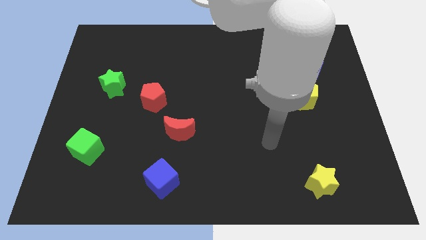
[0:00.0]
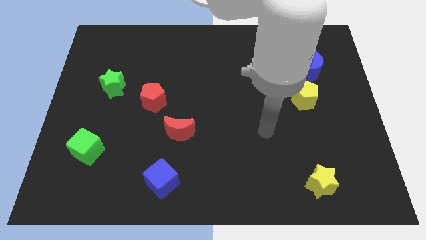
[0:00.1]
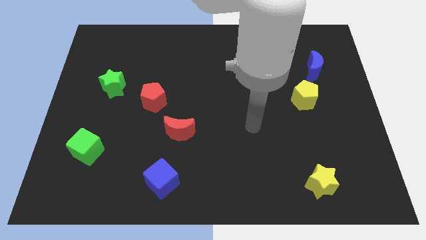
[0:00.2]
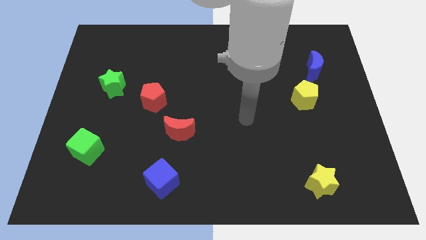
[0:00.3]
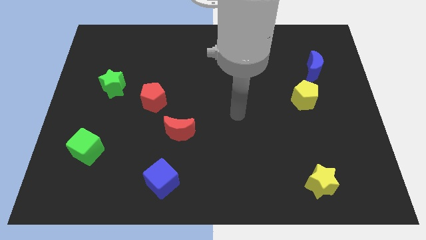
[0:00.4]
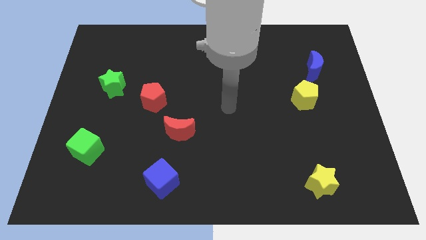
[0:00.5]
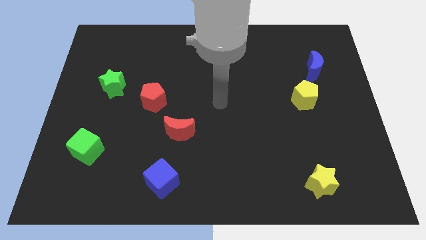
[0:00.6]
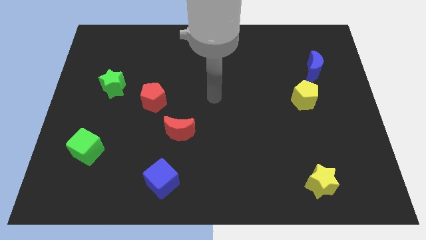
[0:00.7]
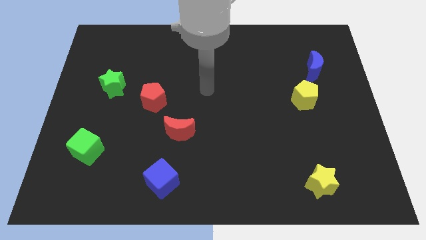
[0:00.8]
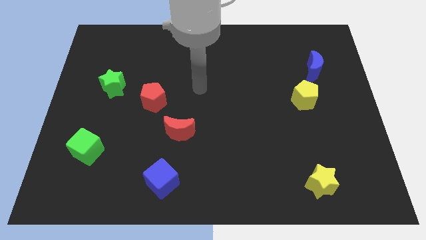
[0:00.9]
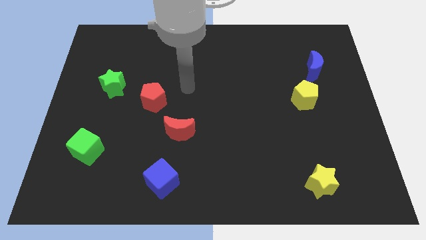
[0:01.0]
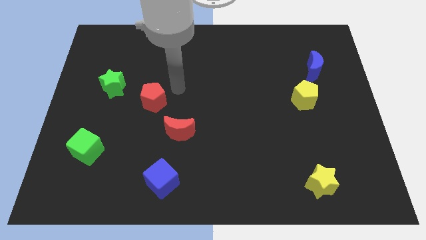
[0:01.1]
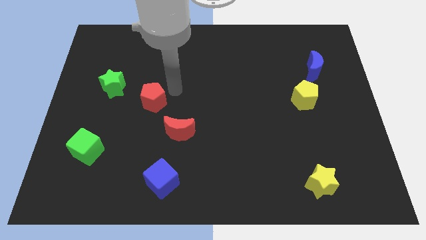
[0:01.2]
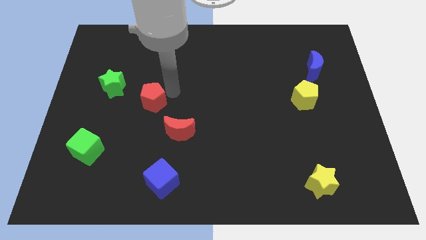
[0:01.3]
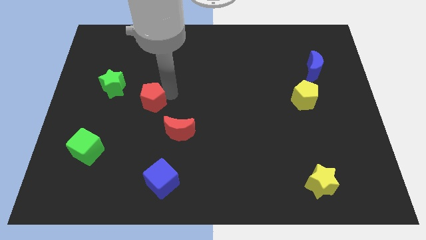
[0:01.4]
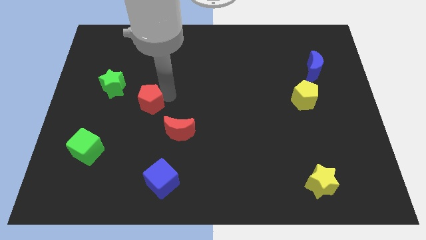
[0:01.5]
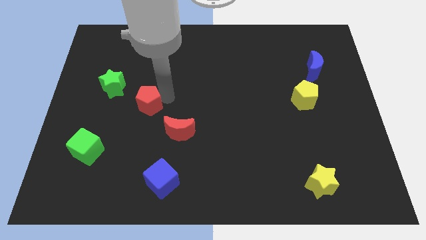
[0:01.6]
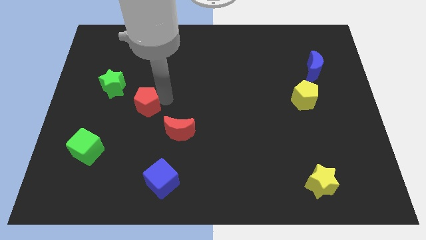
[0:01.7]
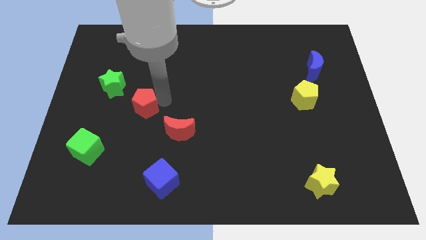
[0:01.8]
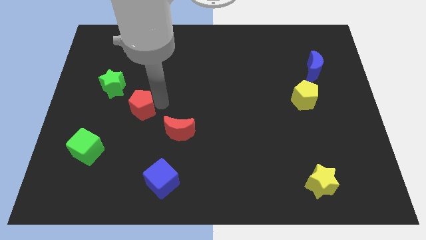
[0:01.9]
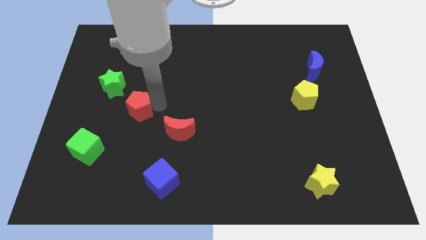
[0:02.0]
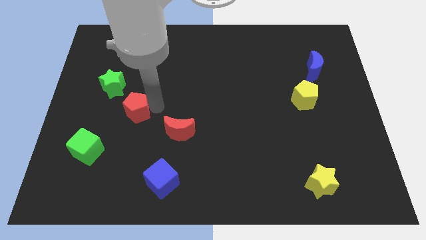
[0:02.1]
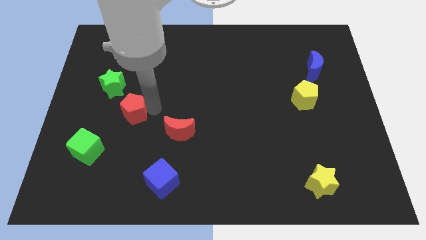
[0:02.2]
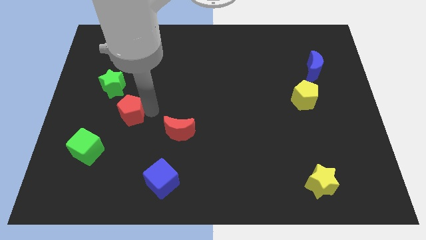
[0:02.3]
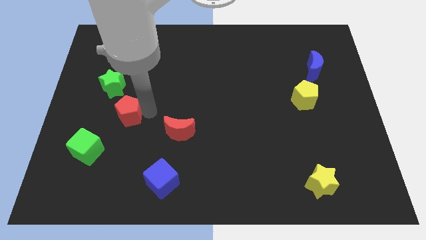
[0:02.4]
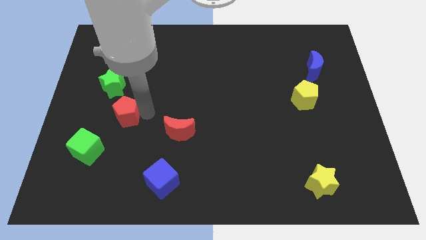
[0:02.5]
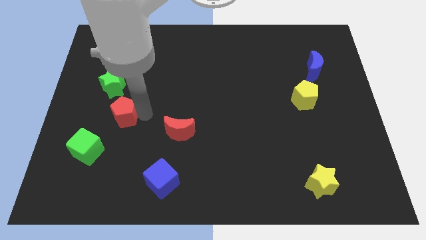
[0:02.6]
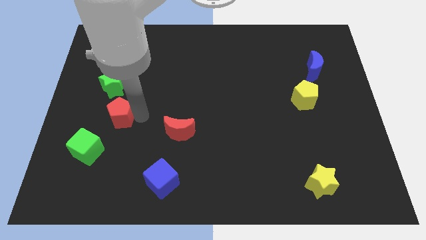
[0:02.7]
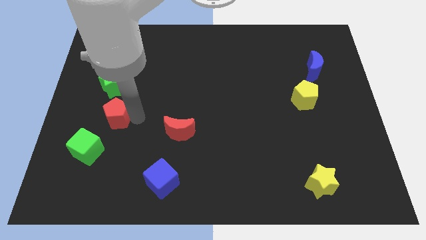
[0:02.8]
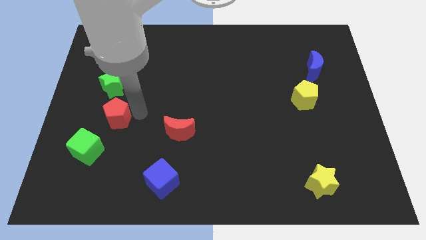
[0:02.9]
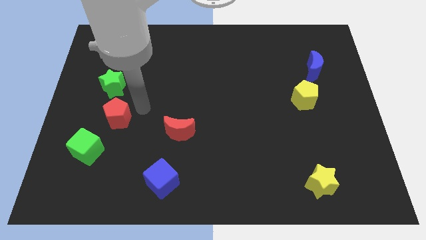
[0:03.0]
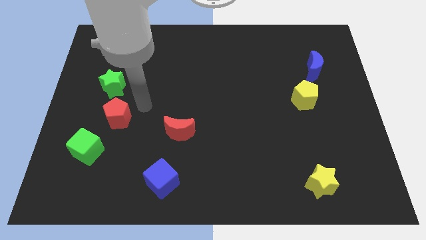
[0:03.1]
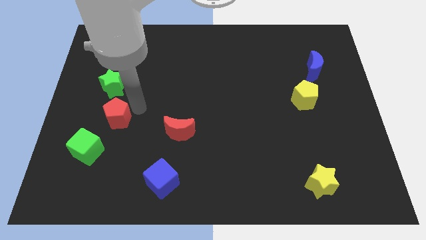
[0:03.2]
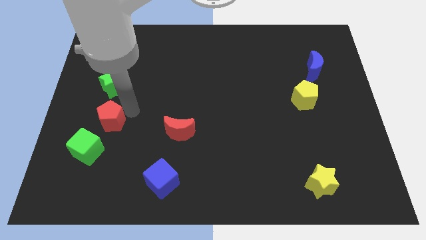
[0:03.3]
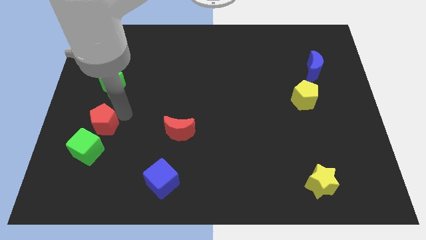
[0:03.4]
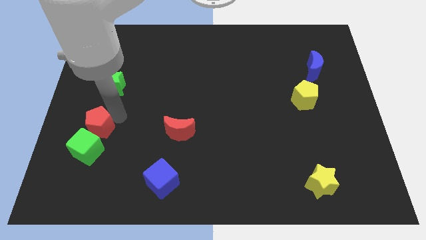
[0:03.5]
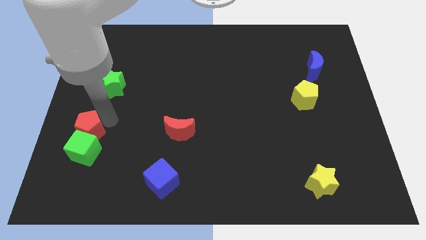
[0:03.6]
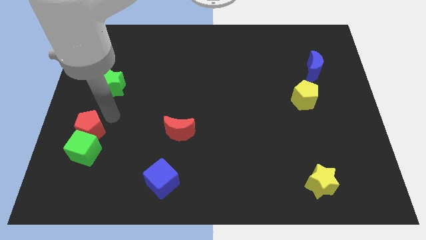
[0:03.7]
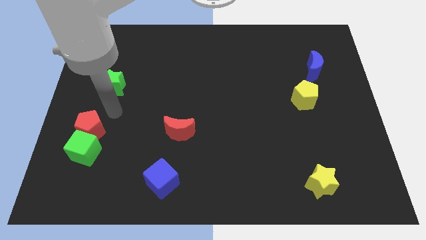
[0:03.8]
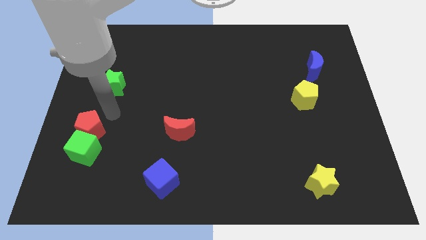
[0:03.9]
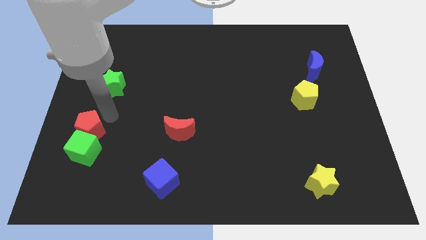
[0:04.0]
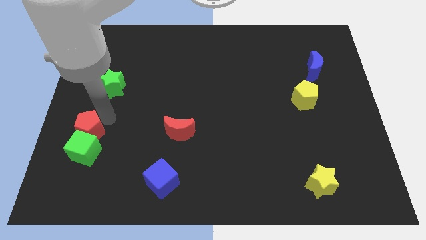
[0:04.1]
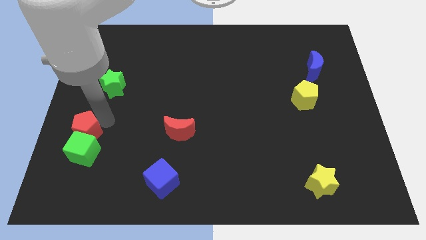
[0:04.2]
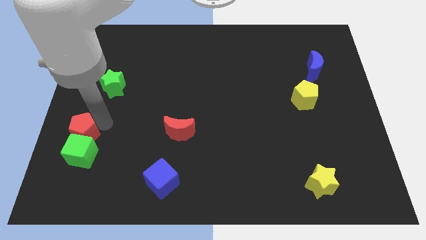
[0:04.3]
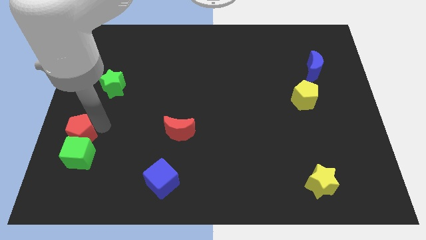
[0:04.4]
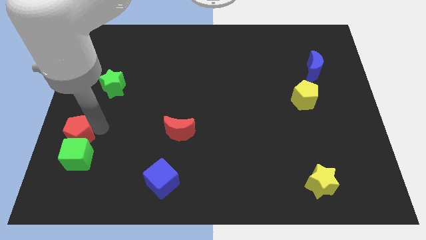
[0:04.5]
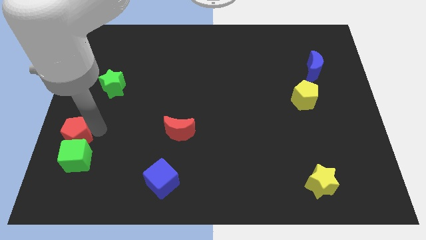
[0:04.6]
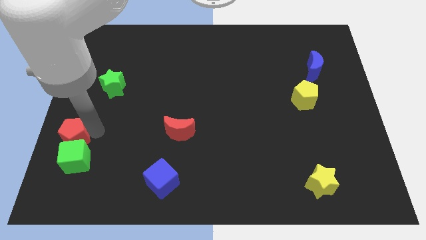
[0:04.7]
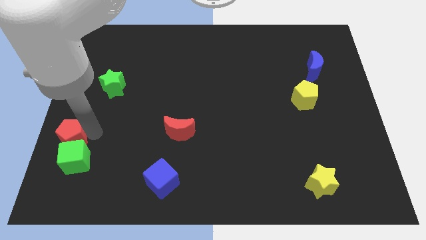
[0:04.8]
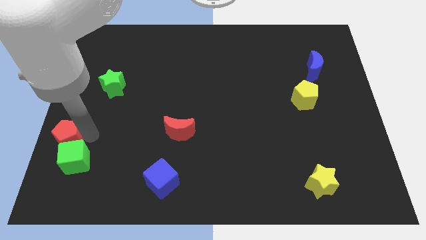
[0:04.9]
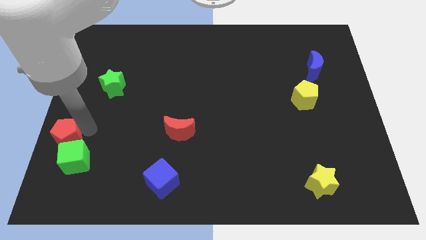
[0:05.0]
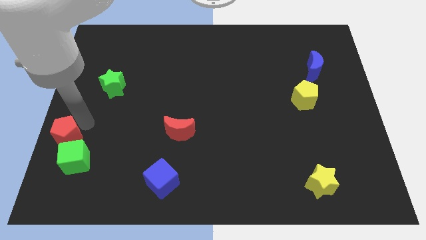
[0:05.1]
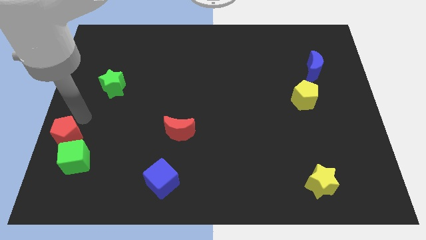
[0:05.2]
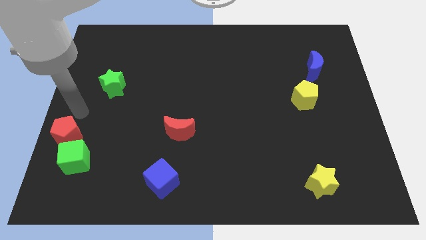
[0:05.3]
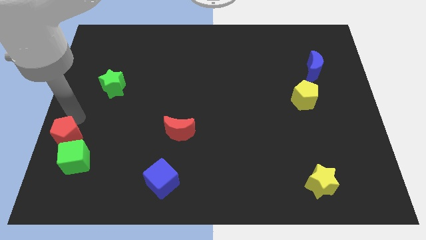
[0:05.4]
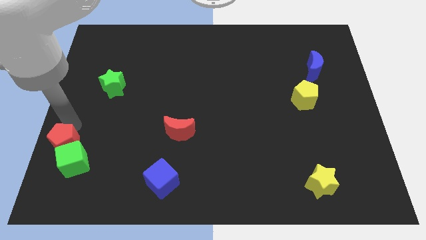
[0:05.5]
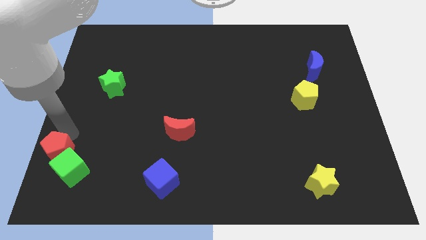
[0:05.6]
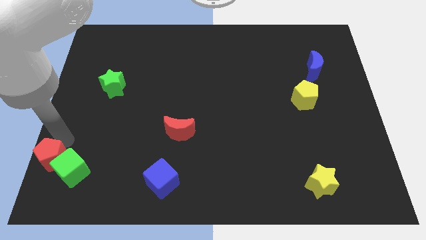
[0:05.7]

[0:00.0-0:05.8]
put the red pentagon to the bottom left corner

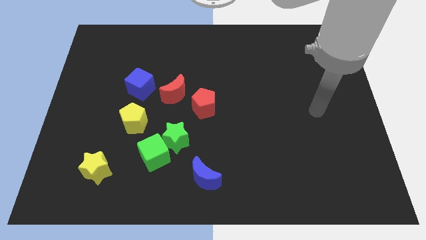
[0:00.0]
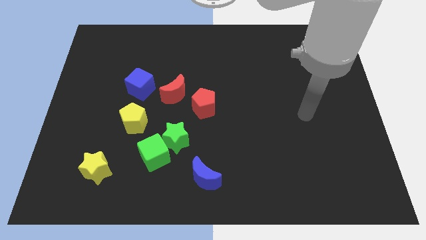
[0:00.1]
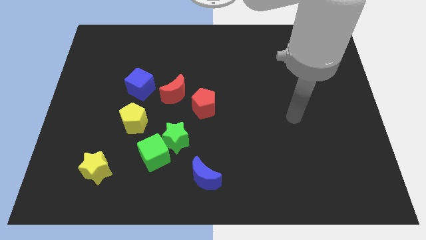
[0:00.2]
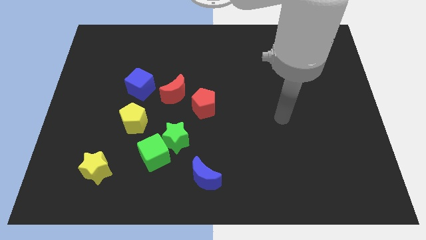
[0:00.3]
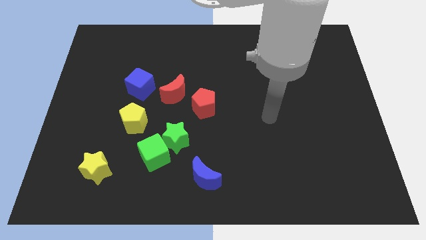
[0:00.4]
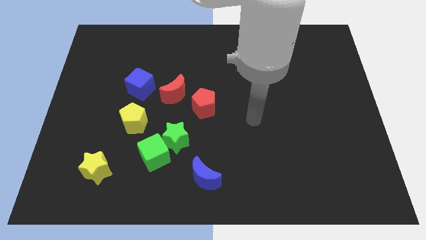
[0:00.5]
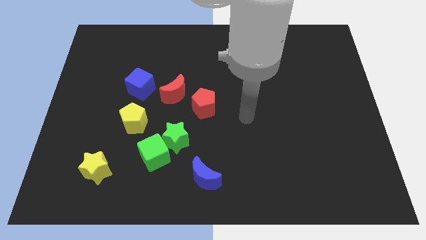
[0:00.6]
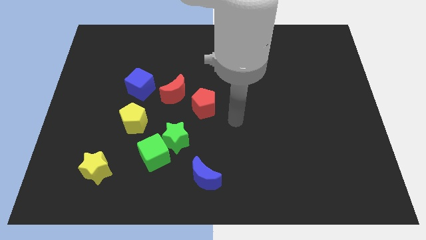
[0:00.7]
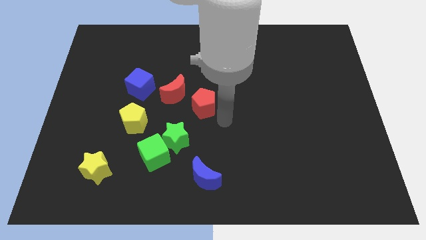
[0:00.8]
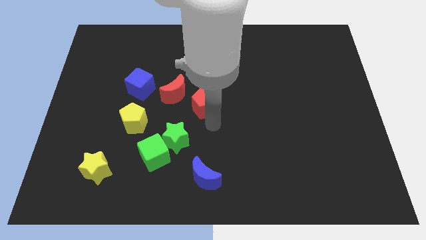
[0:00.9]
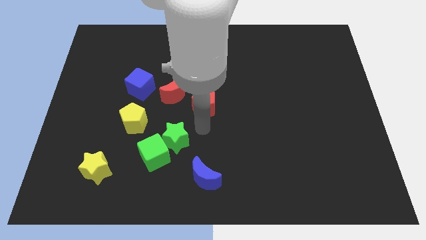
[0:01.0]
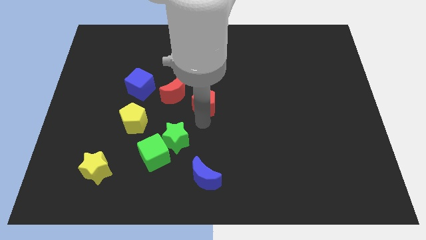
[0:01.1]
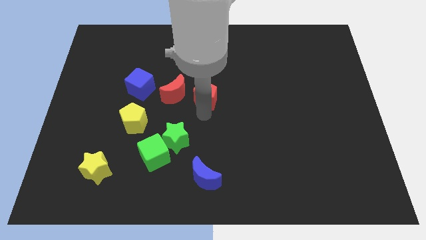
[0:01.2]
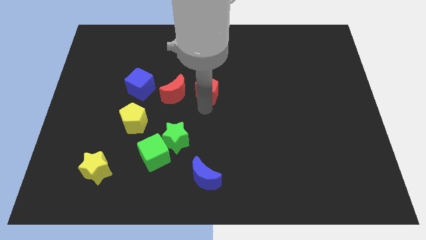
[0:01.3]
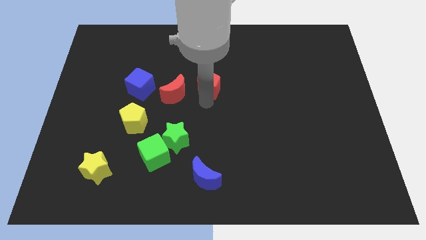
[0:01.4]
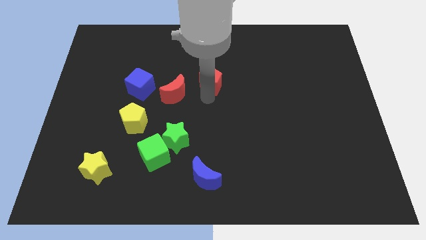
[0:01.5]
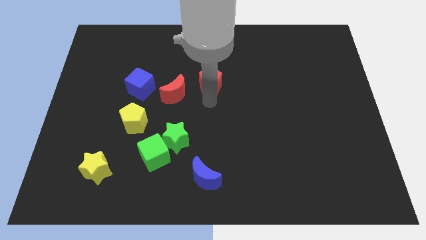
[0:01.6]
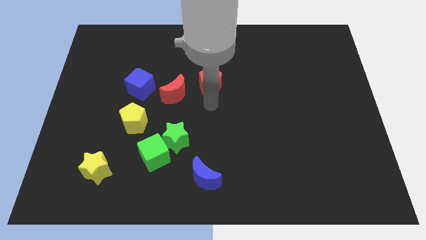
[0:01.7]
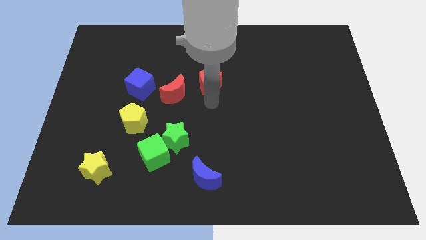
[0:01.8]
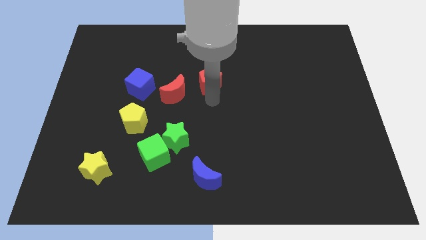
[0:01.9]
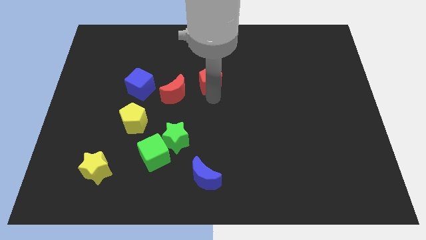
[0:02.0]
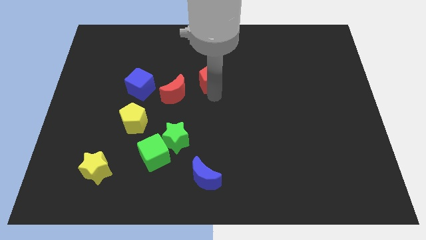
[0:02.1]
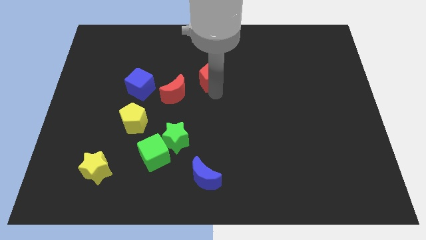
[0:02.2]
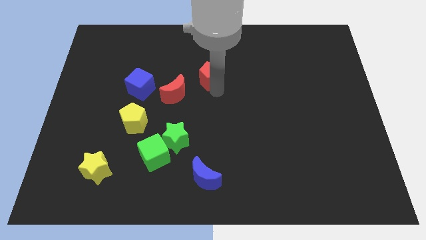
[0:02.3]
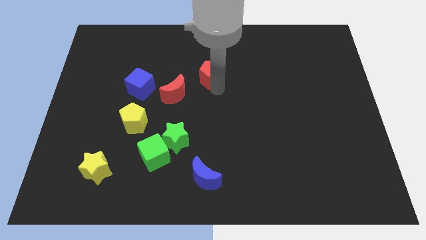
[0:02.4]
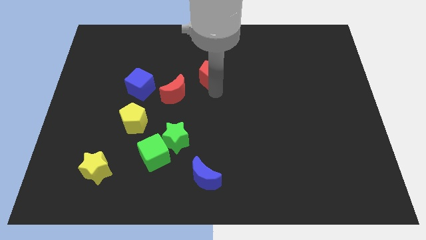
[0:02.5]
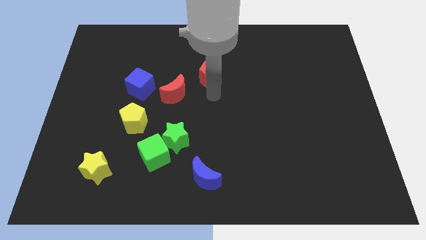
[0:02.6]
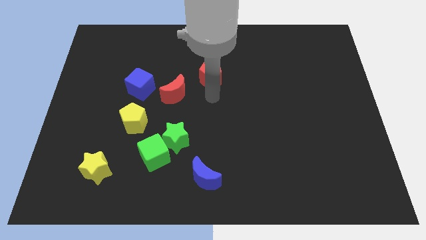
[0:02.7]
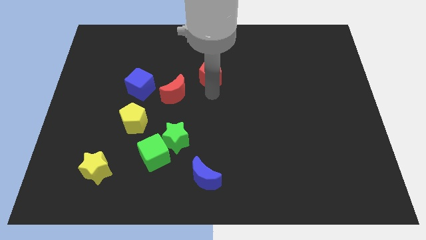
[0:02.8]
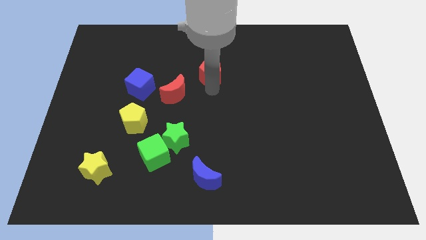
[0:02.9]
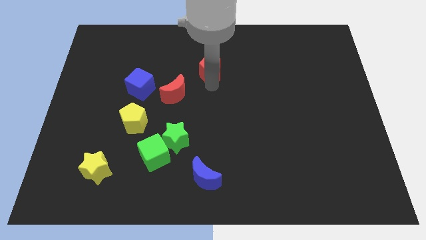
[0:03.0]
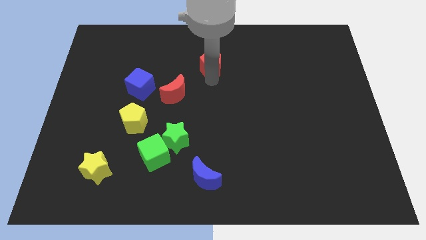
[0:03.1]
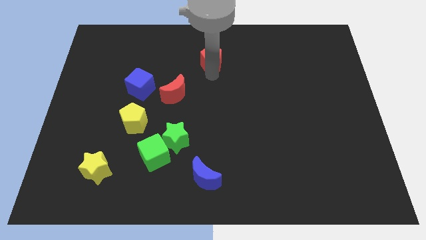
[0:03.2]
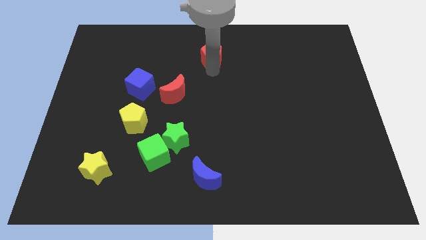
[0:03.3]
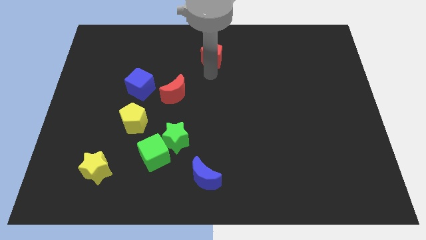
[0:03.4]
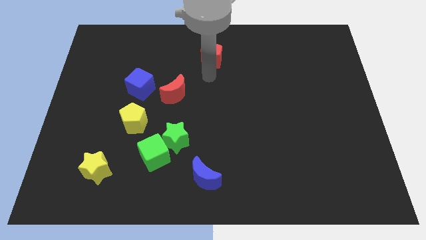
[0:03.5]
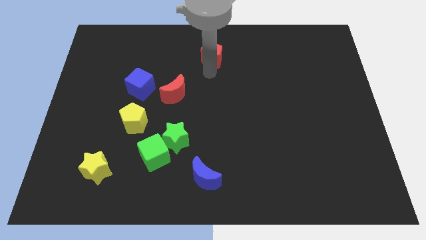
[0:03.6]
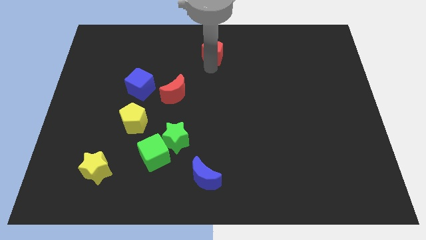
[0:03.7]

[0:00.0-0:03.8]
move the red pentagon to the towards your base
